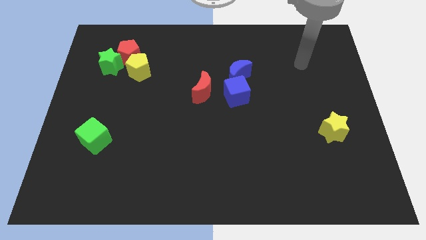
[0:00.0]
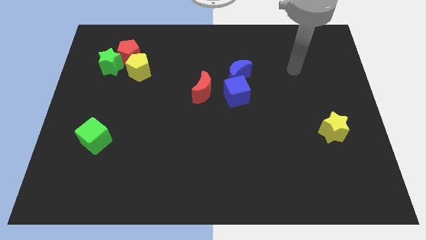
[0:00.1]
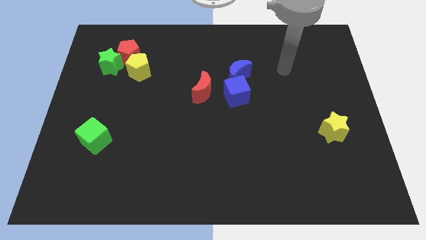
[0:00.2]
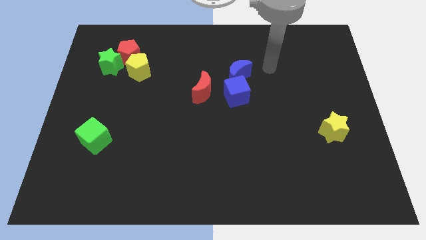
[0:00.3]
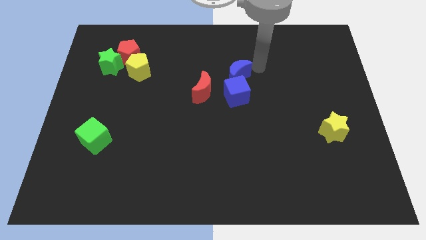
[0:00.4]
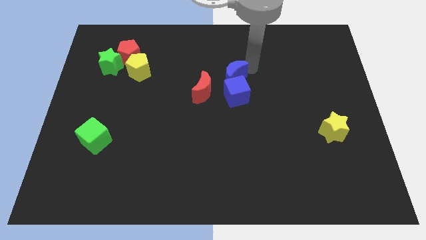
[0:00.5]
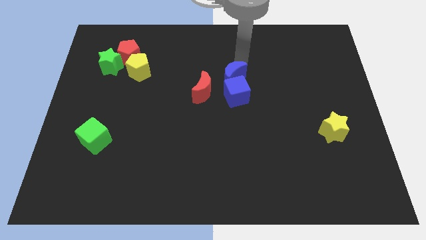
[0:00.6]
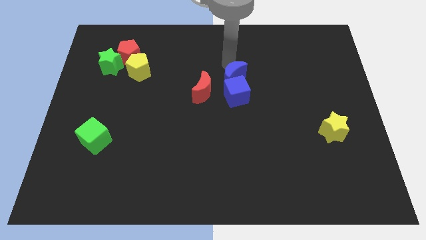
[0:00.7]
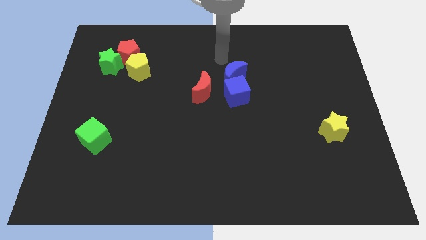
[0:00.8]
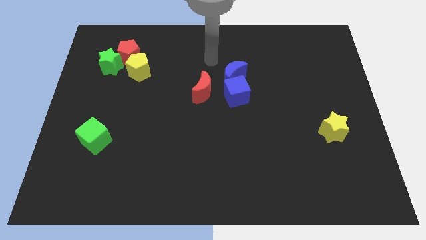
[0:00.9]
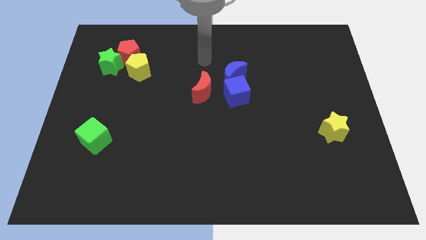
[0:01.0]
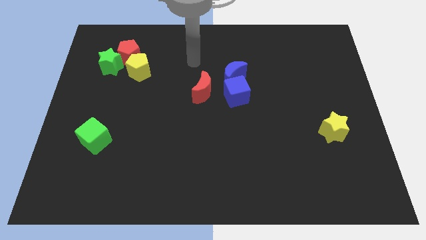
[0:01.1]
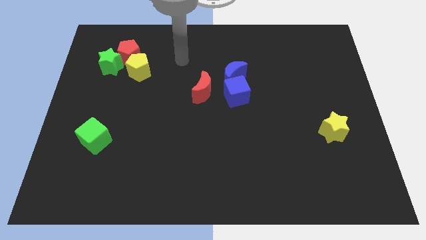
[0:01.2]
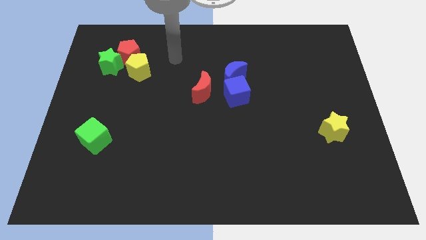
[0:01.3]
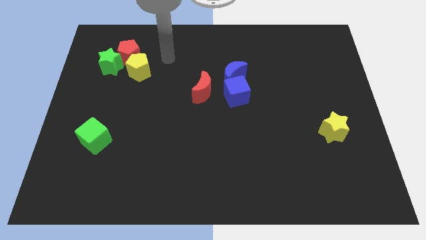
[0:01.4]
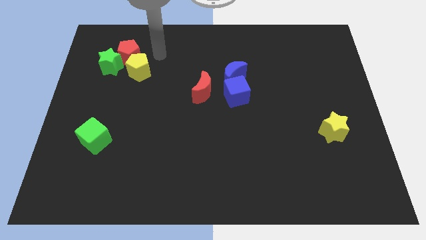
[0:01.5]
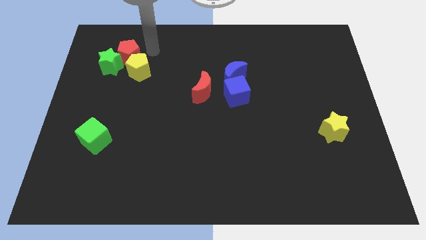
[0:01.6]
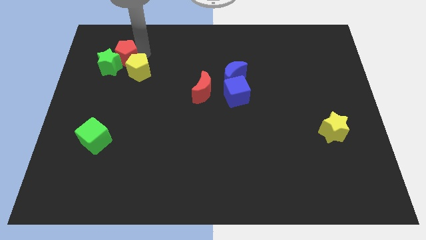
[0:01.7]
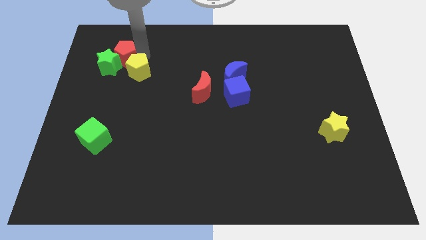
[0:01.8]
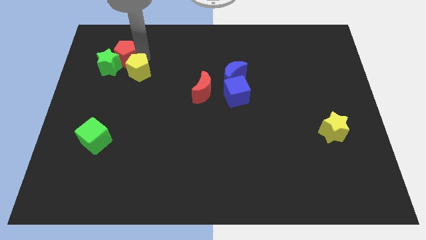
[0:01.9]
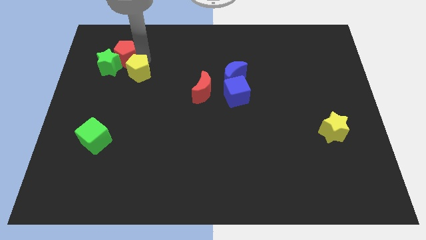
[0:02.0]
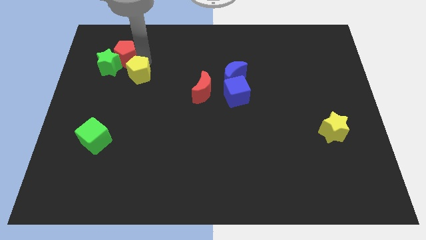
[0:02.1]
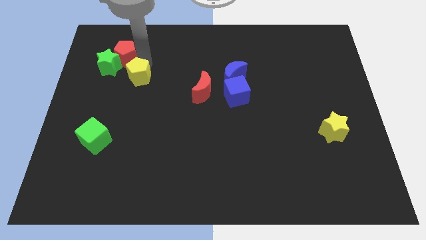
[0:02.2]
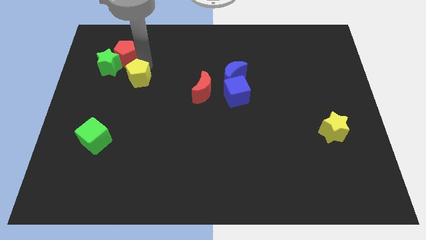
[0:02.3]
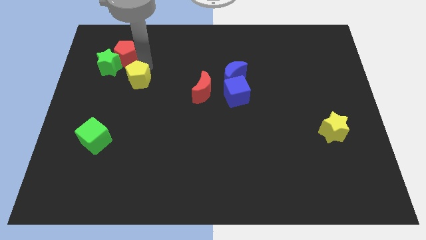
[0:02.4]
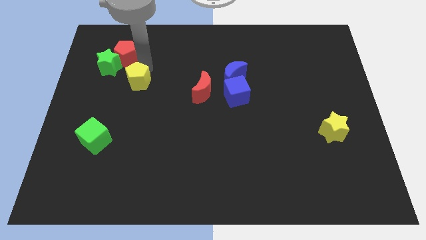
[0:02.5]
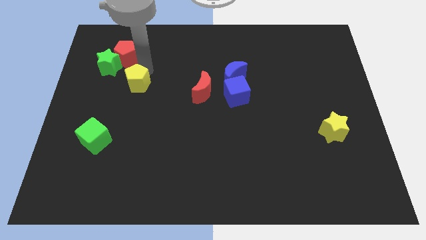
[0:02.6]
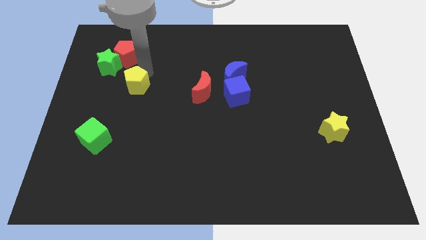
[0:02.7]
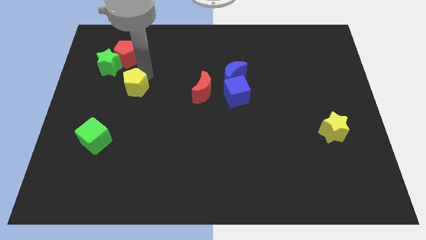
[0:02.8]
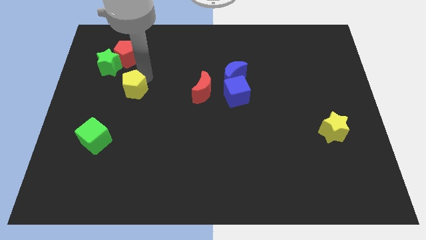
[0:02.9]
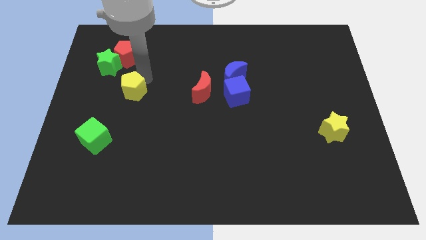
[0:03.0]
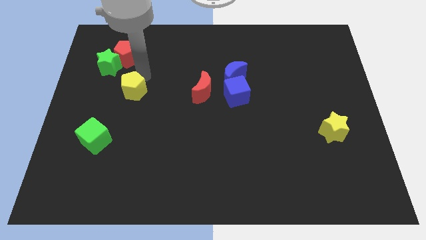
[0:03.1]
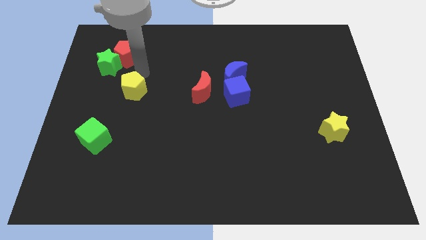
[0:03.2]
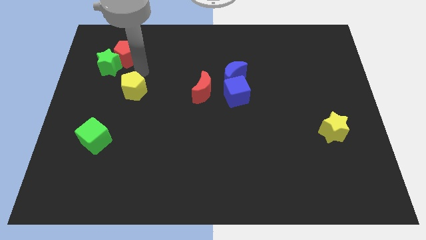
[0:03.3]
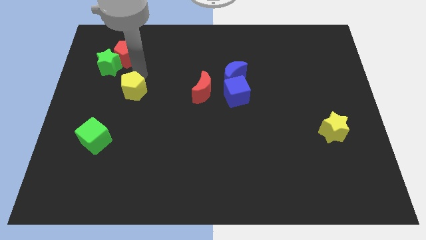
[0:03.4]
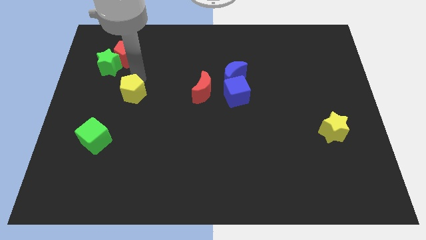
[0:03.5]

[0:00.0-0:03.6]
slightly slide the yellow pentagon down

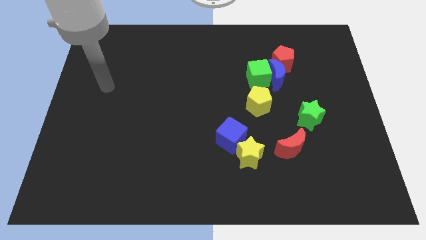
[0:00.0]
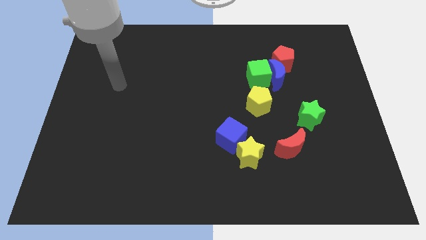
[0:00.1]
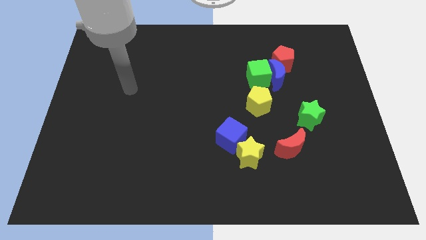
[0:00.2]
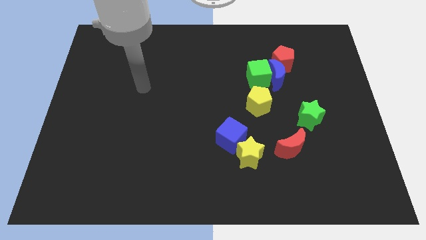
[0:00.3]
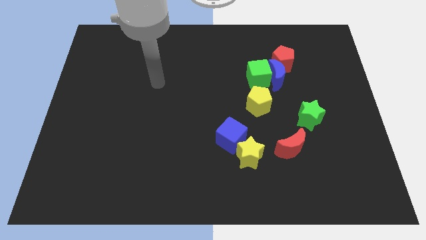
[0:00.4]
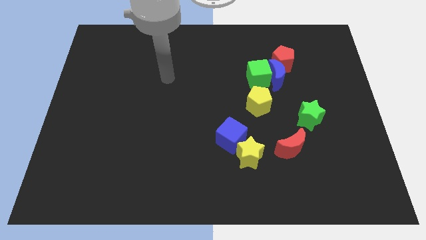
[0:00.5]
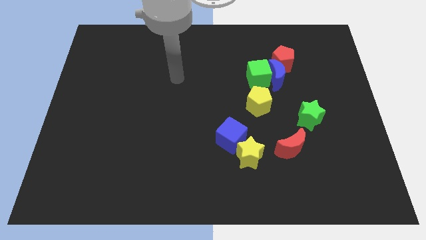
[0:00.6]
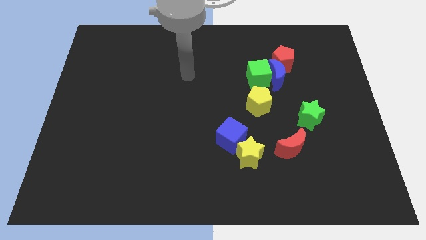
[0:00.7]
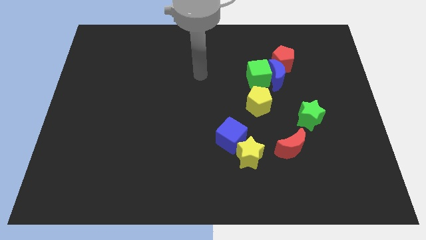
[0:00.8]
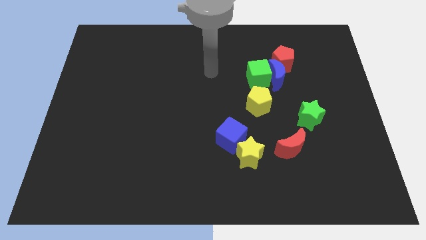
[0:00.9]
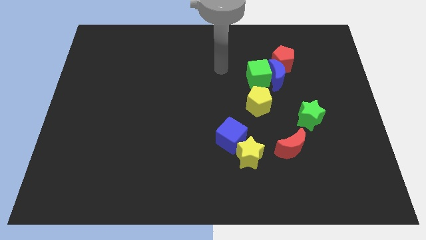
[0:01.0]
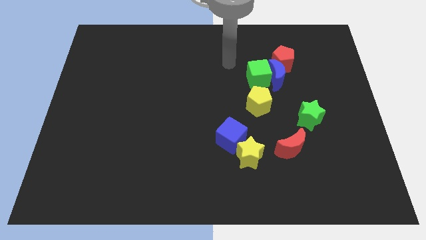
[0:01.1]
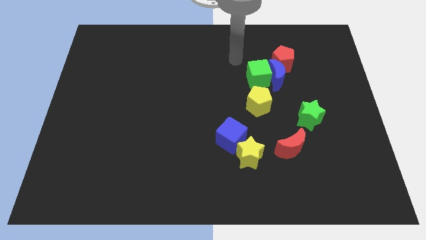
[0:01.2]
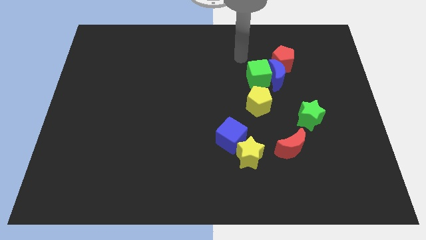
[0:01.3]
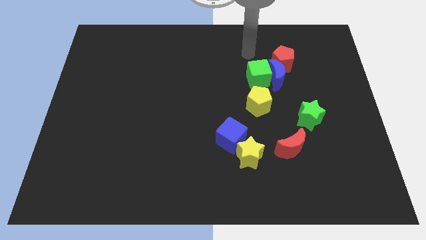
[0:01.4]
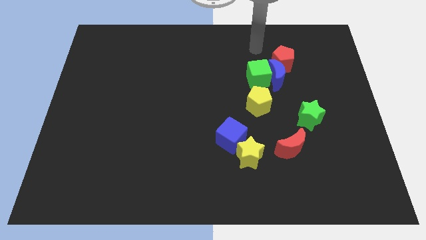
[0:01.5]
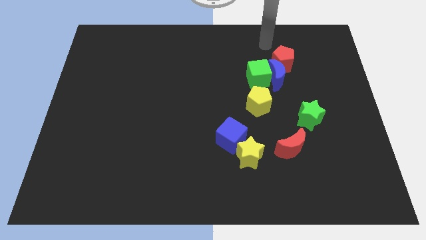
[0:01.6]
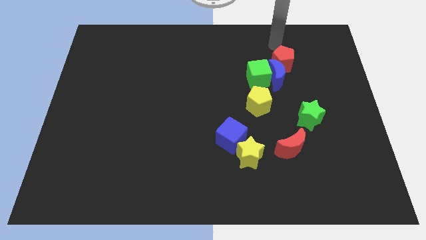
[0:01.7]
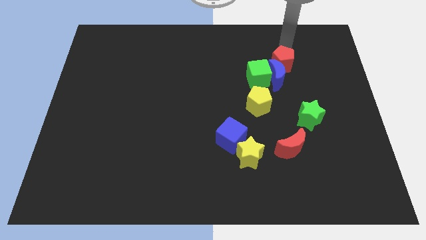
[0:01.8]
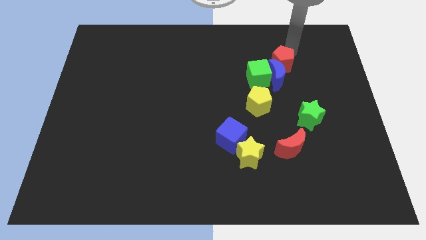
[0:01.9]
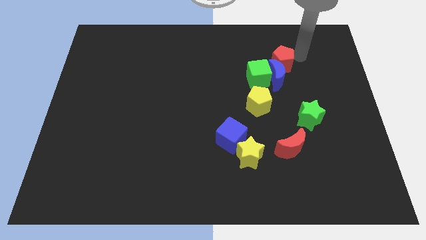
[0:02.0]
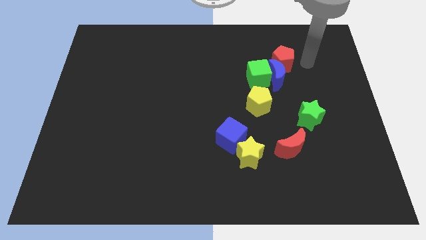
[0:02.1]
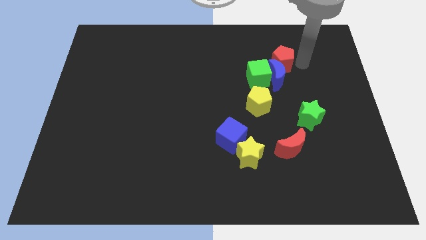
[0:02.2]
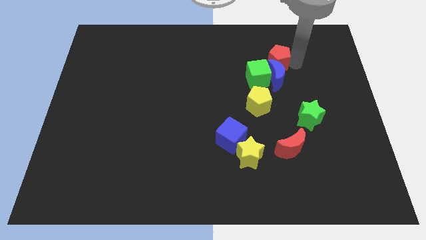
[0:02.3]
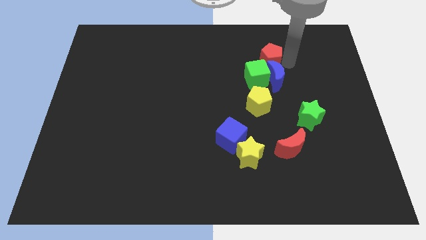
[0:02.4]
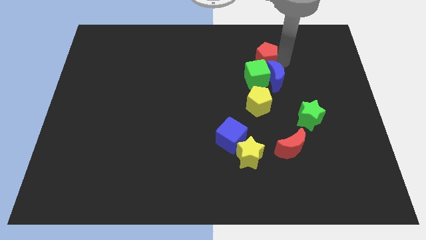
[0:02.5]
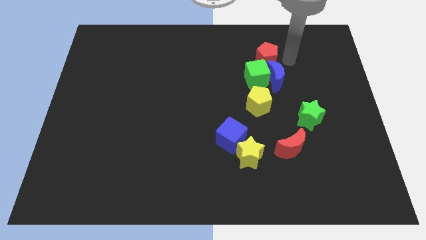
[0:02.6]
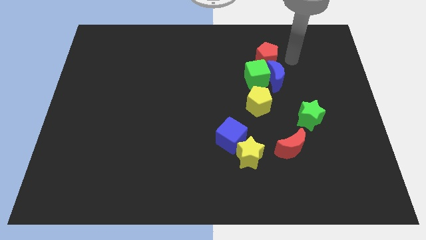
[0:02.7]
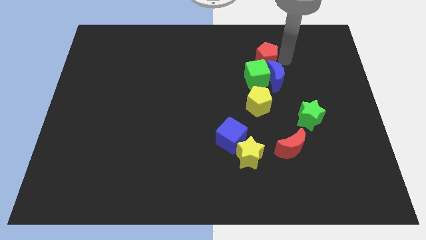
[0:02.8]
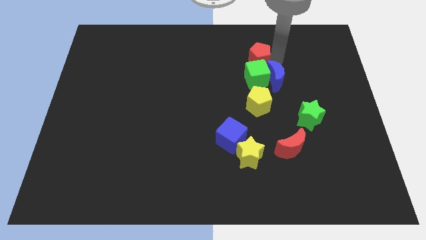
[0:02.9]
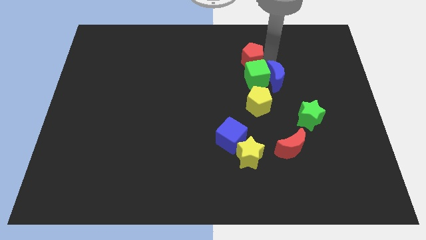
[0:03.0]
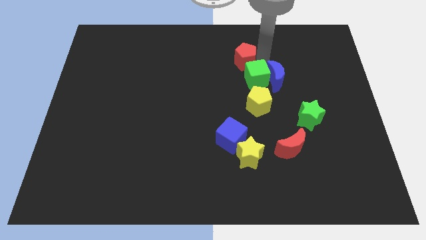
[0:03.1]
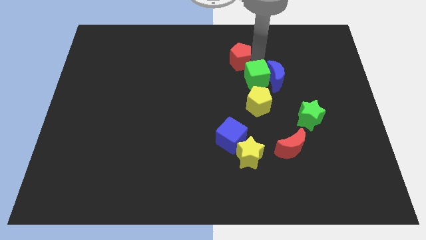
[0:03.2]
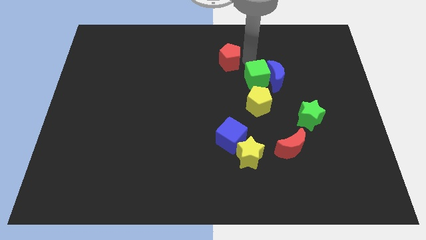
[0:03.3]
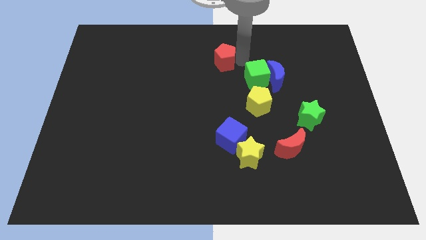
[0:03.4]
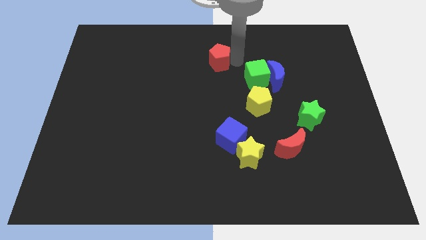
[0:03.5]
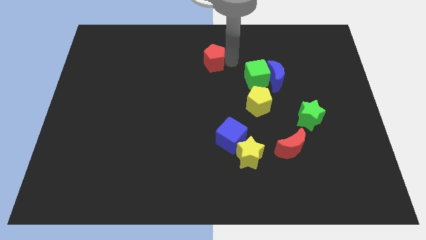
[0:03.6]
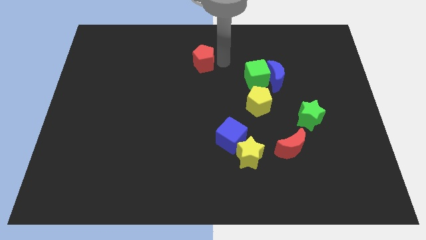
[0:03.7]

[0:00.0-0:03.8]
push the red pentagon left

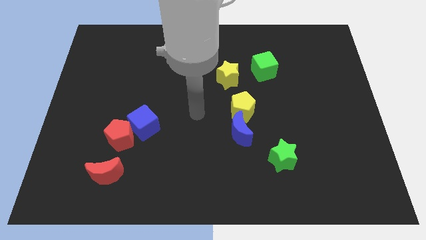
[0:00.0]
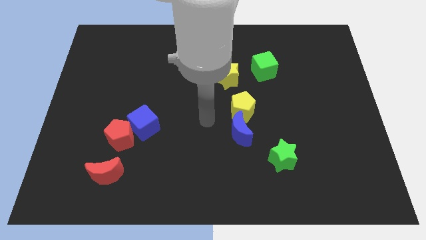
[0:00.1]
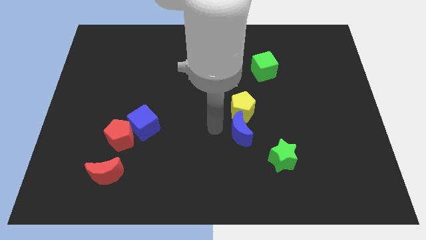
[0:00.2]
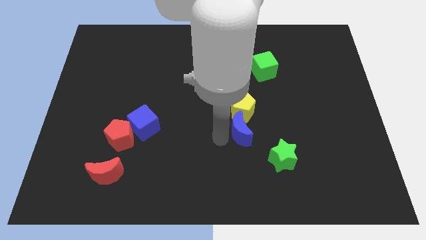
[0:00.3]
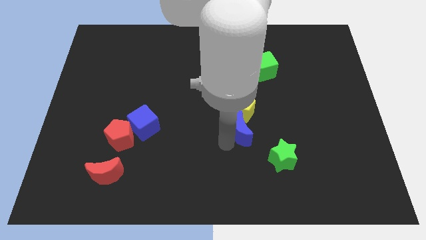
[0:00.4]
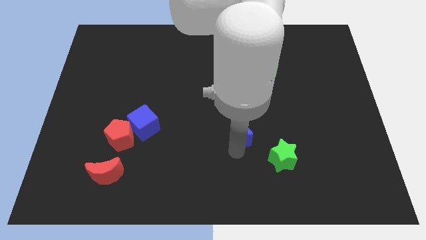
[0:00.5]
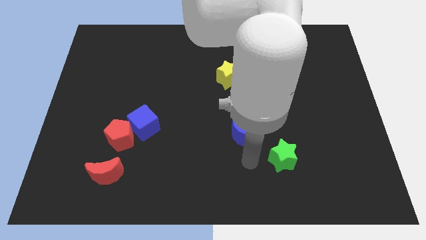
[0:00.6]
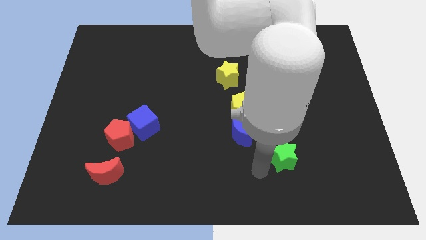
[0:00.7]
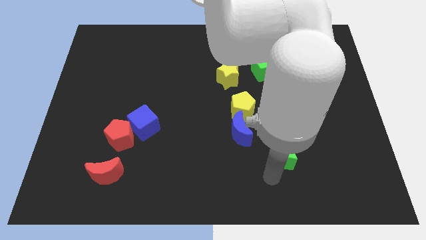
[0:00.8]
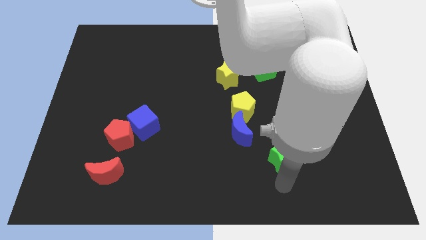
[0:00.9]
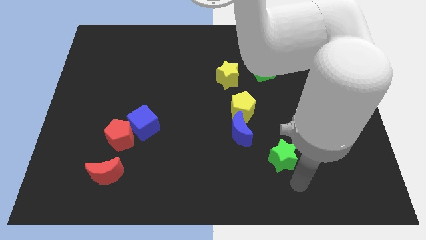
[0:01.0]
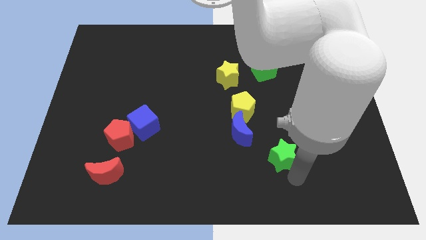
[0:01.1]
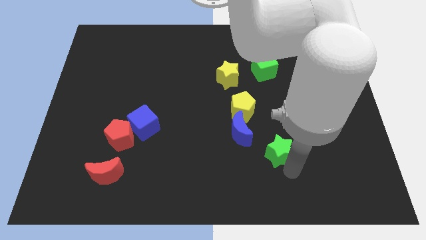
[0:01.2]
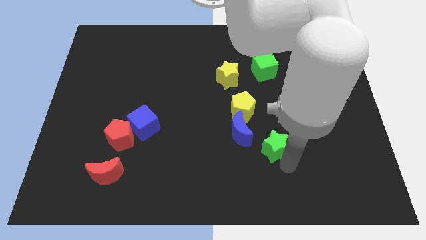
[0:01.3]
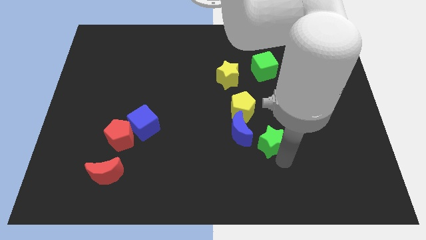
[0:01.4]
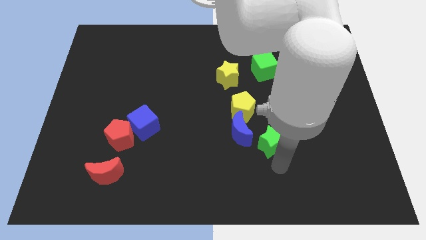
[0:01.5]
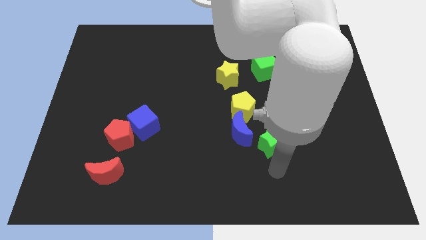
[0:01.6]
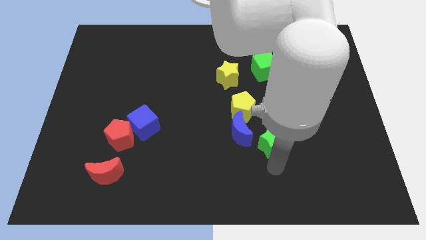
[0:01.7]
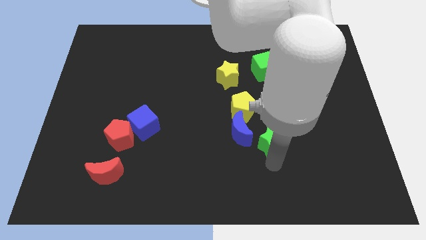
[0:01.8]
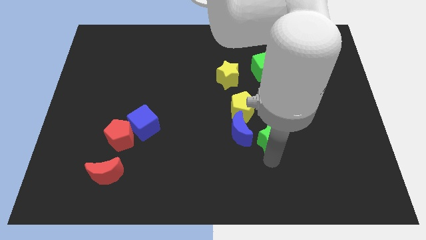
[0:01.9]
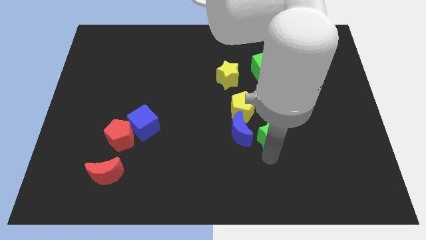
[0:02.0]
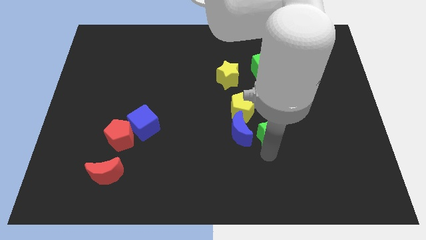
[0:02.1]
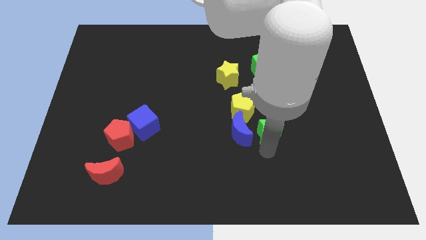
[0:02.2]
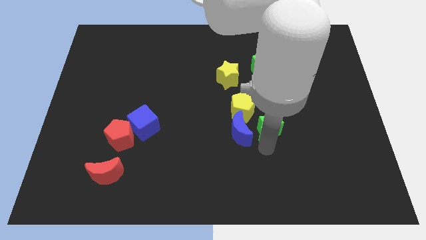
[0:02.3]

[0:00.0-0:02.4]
slightly push the green star upwards
